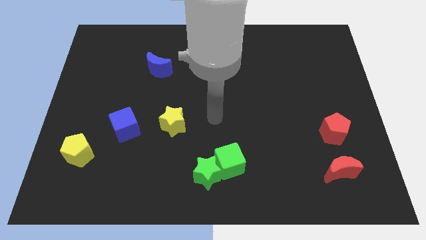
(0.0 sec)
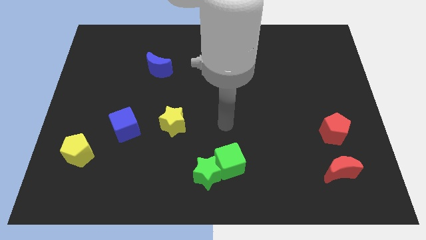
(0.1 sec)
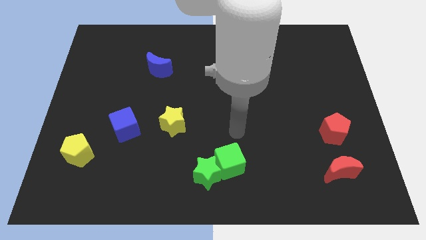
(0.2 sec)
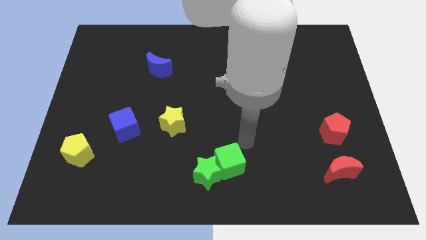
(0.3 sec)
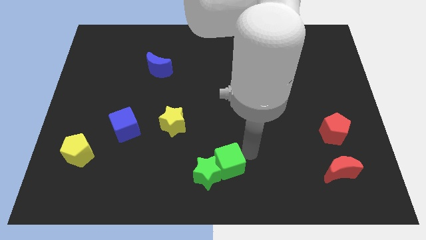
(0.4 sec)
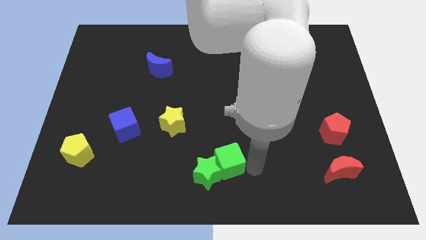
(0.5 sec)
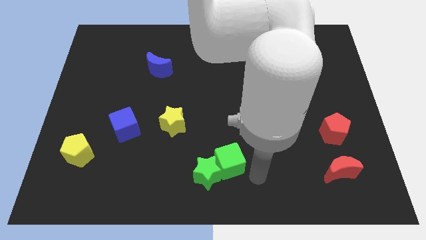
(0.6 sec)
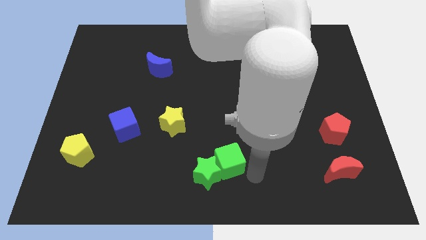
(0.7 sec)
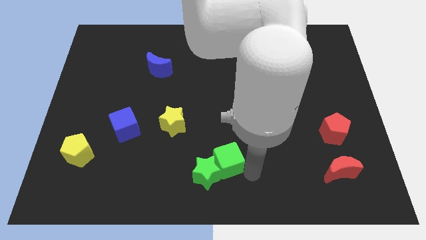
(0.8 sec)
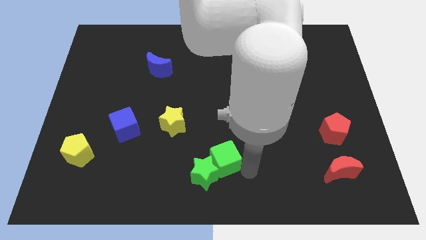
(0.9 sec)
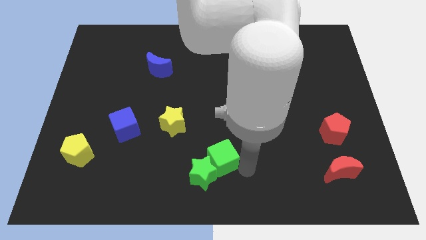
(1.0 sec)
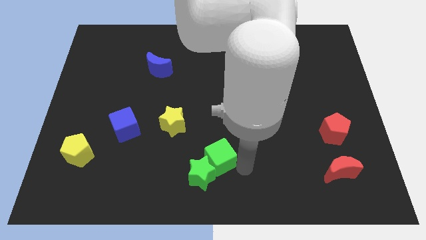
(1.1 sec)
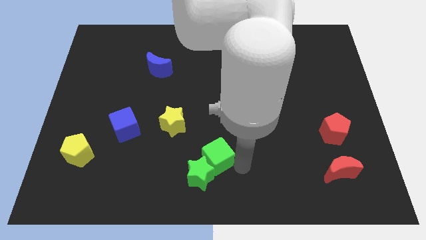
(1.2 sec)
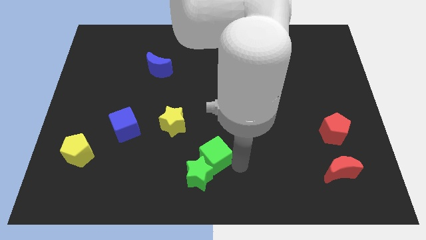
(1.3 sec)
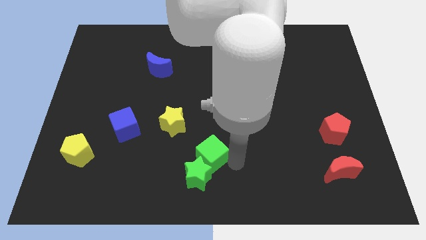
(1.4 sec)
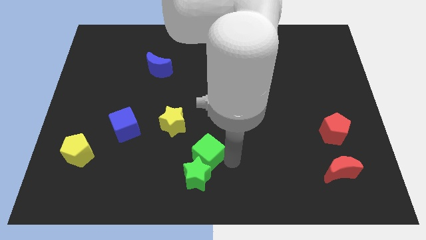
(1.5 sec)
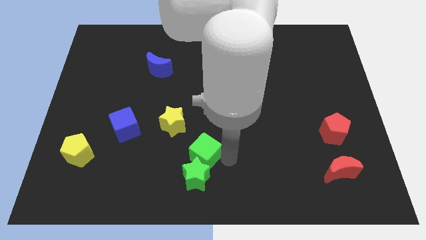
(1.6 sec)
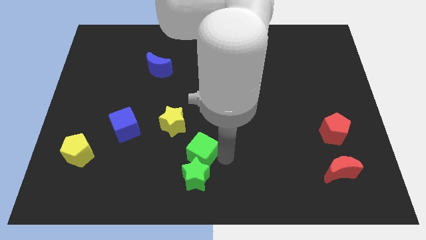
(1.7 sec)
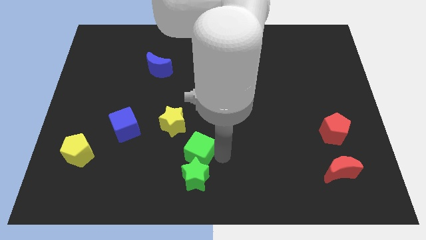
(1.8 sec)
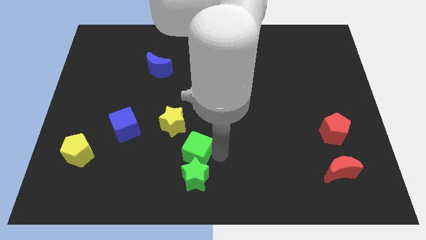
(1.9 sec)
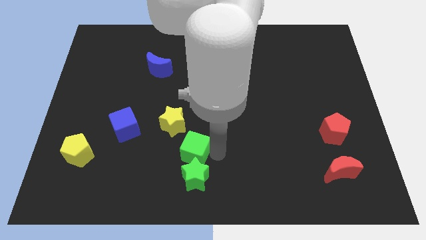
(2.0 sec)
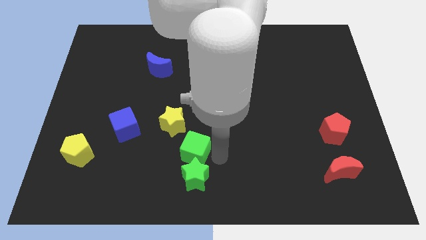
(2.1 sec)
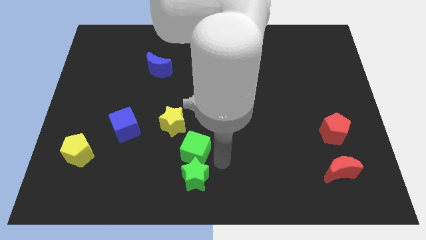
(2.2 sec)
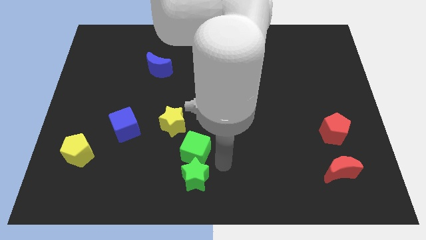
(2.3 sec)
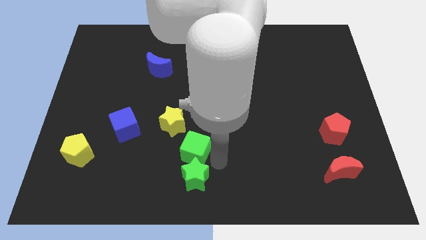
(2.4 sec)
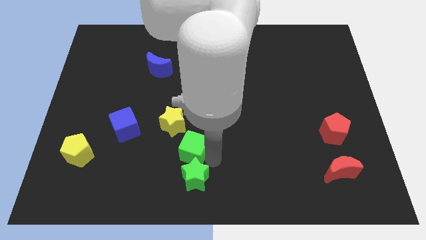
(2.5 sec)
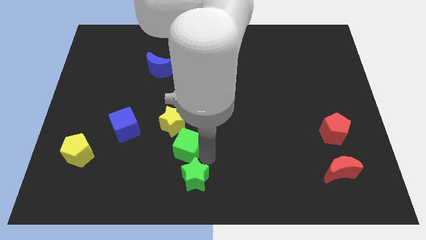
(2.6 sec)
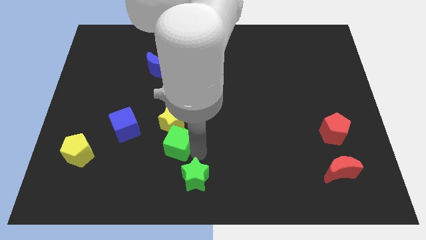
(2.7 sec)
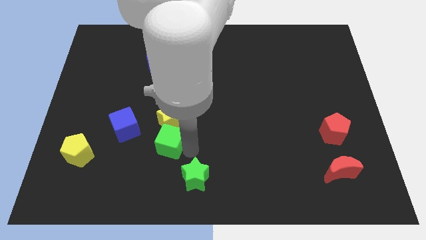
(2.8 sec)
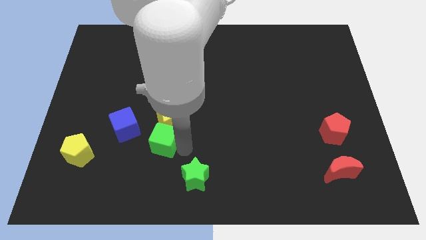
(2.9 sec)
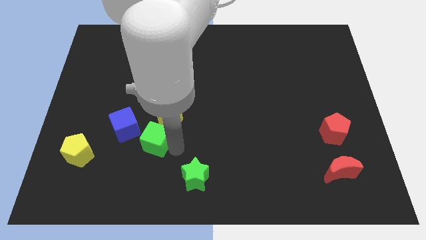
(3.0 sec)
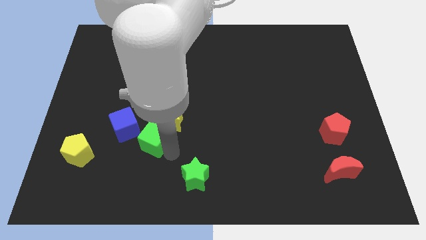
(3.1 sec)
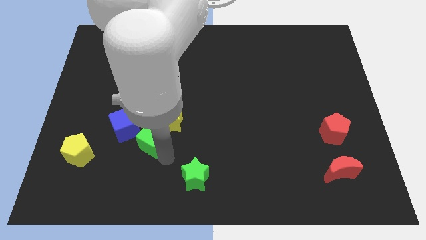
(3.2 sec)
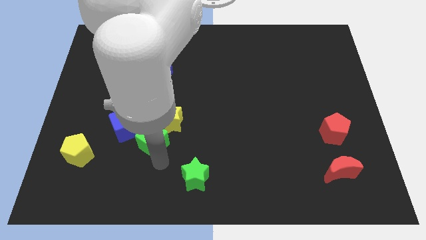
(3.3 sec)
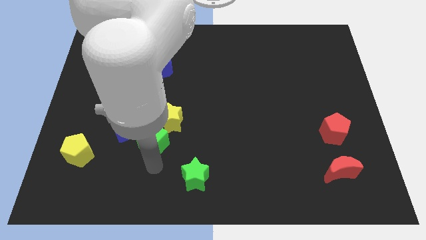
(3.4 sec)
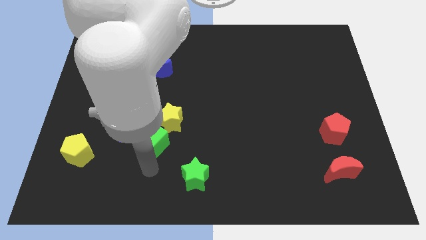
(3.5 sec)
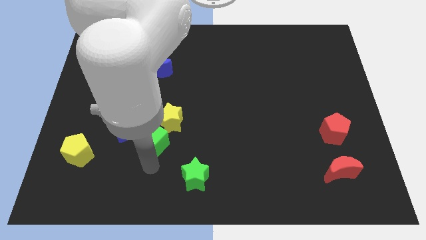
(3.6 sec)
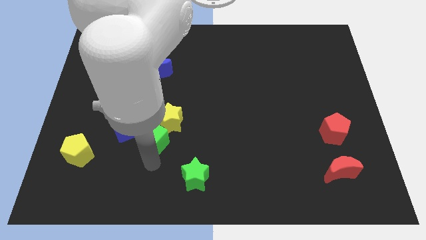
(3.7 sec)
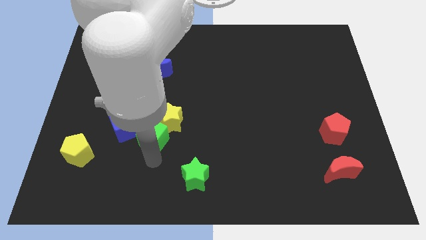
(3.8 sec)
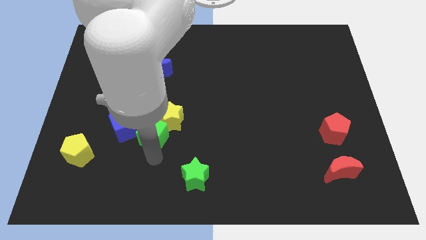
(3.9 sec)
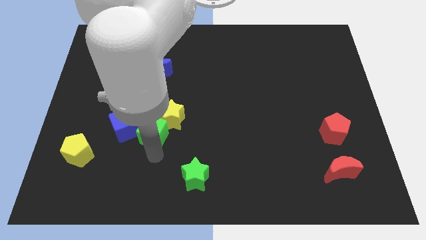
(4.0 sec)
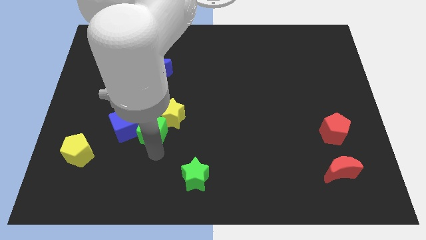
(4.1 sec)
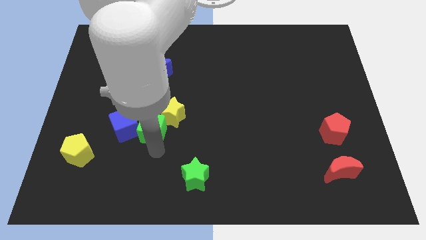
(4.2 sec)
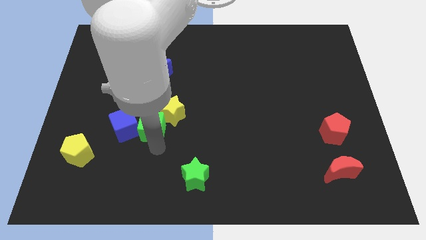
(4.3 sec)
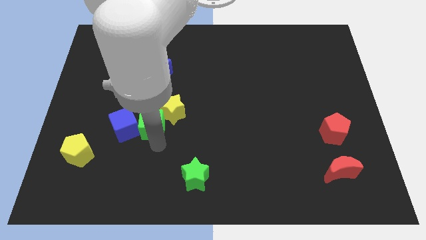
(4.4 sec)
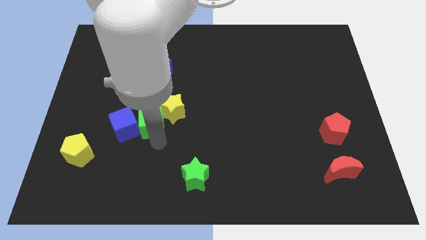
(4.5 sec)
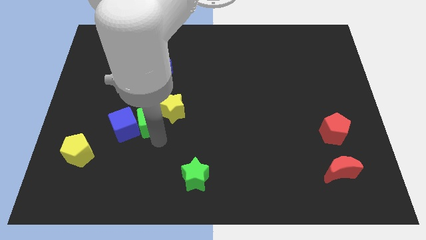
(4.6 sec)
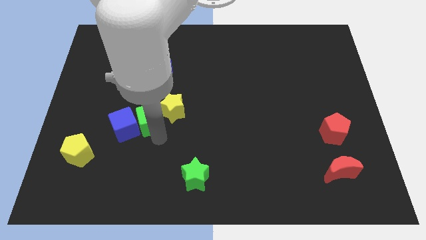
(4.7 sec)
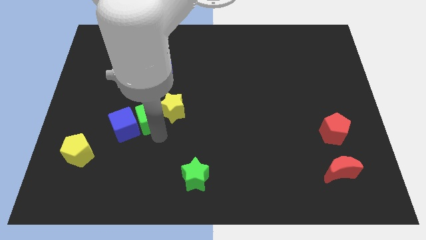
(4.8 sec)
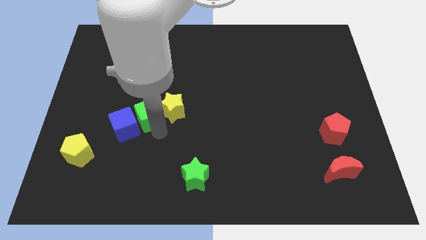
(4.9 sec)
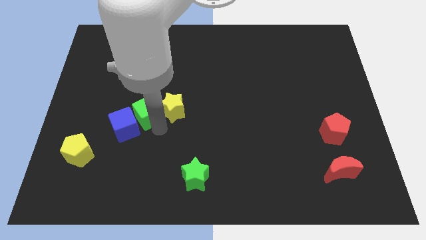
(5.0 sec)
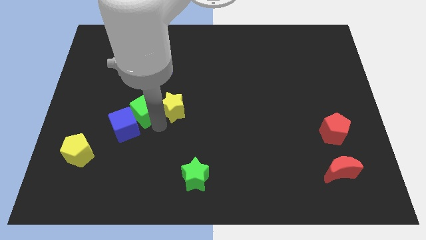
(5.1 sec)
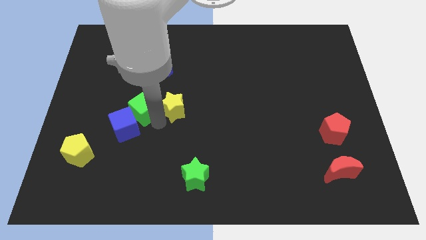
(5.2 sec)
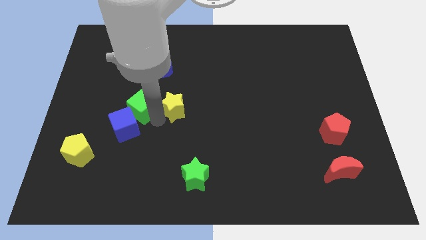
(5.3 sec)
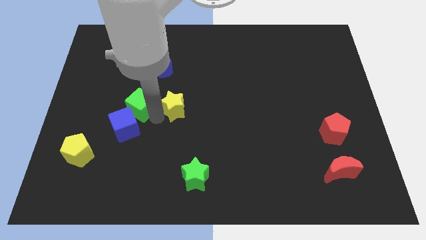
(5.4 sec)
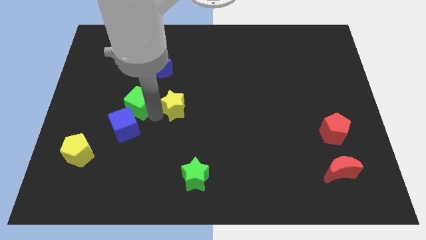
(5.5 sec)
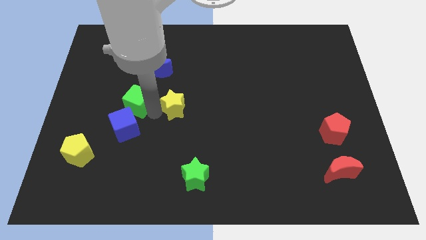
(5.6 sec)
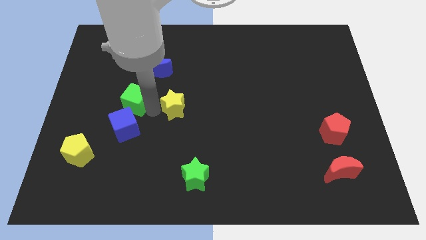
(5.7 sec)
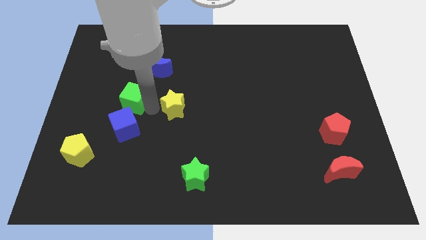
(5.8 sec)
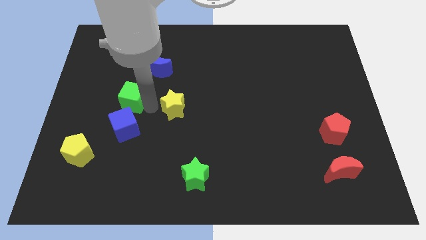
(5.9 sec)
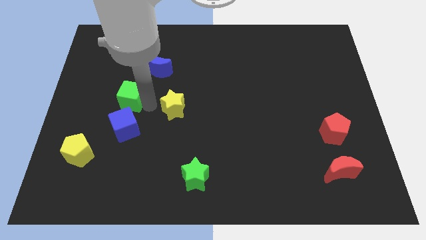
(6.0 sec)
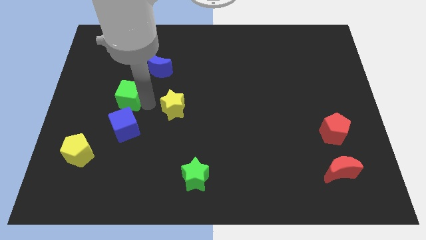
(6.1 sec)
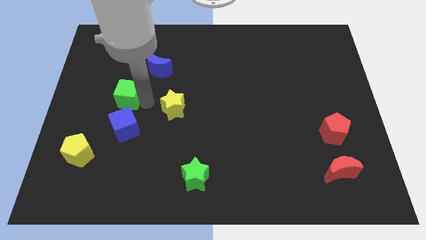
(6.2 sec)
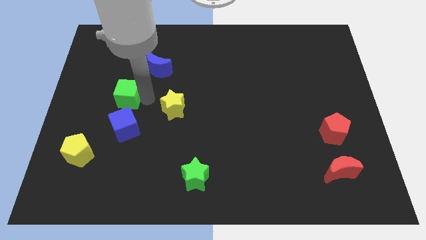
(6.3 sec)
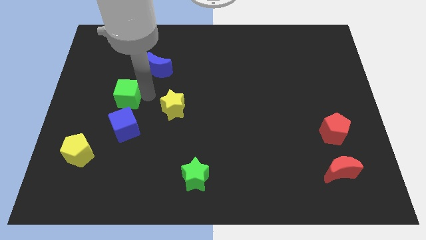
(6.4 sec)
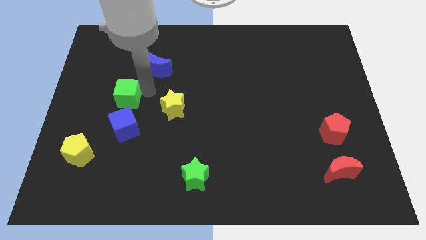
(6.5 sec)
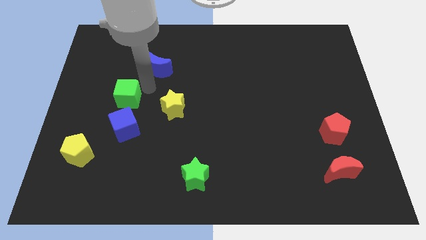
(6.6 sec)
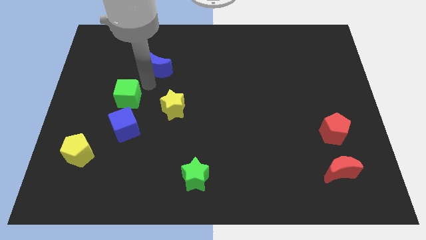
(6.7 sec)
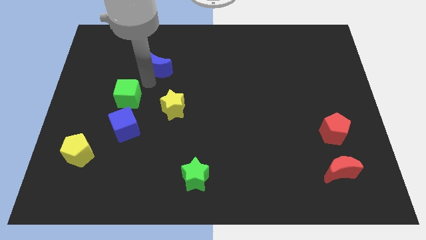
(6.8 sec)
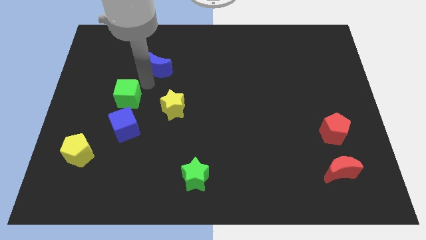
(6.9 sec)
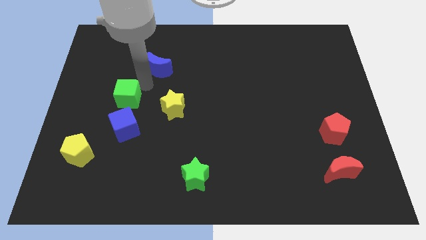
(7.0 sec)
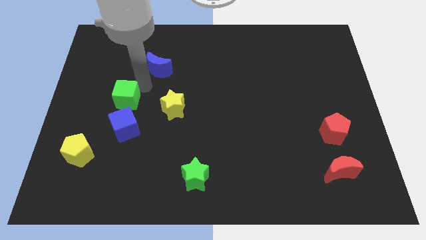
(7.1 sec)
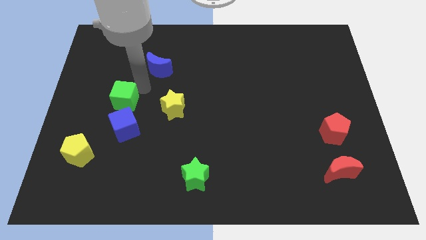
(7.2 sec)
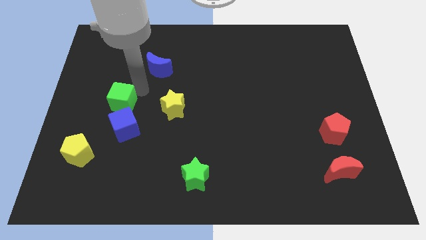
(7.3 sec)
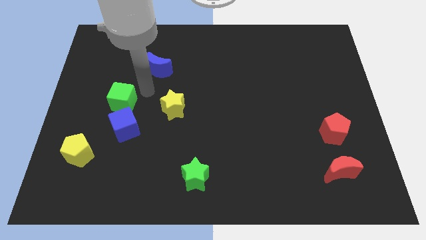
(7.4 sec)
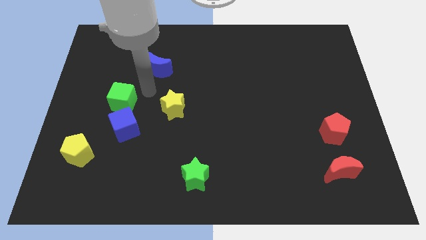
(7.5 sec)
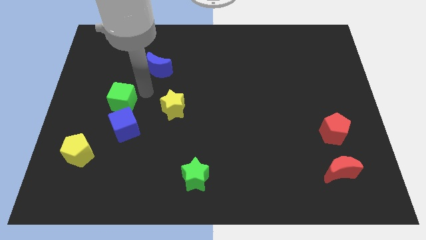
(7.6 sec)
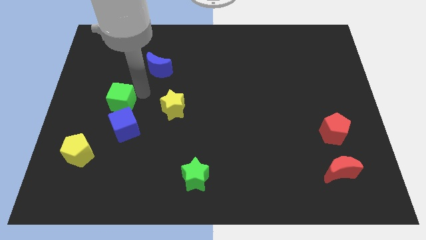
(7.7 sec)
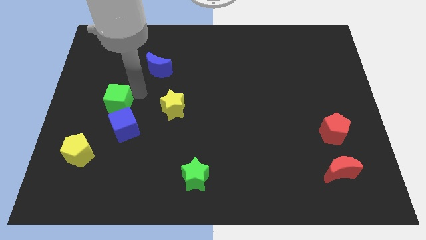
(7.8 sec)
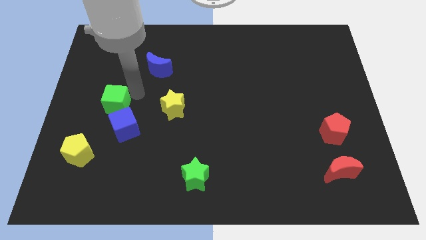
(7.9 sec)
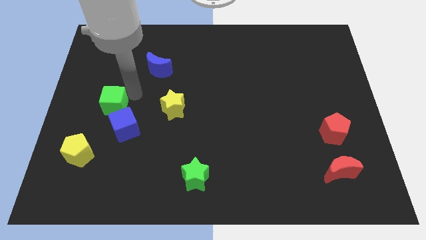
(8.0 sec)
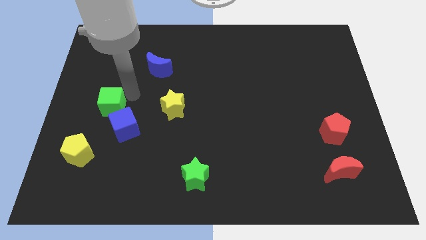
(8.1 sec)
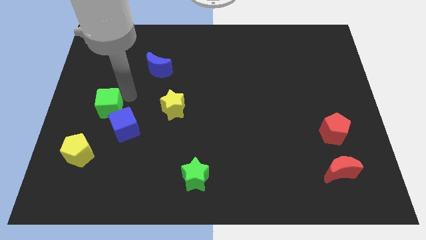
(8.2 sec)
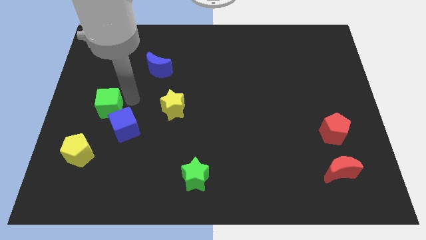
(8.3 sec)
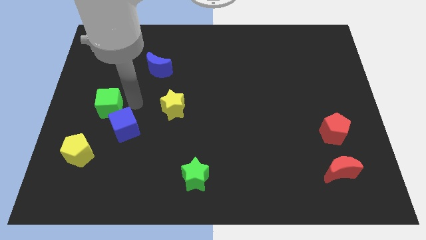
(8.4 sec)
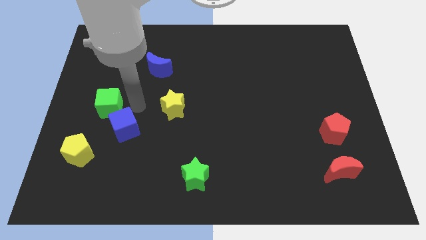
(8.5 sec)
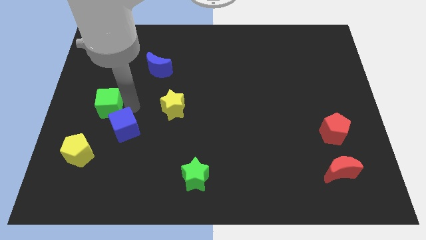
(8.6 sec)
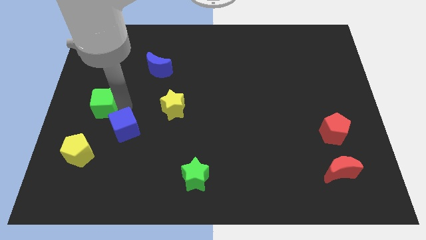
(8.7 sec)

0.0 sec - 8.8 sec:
push the green cube to the left side of the board
